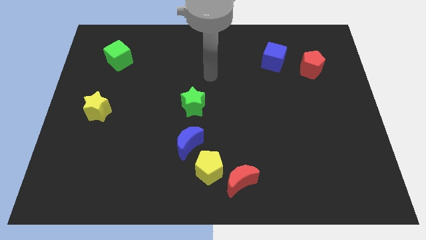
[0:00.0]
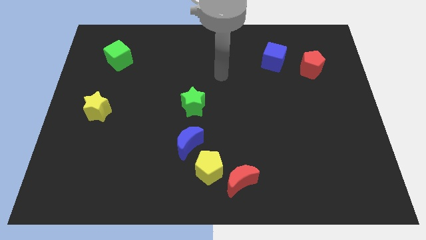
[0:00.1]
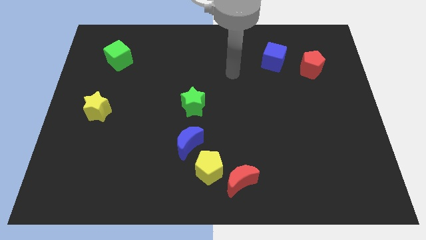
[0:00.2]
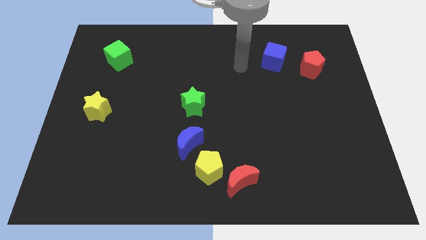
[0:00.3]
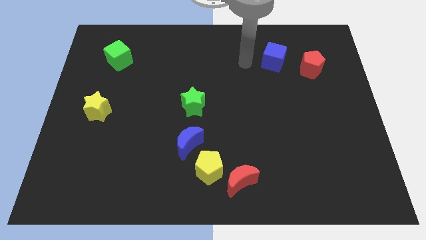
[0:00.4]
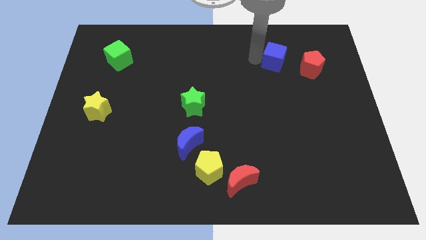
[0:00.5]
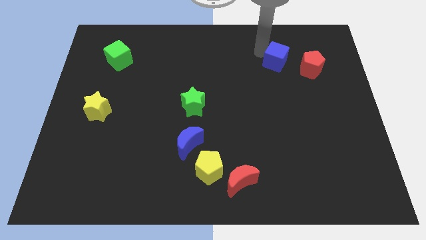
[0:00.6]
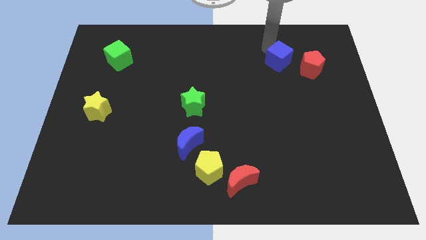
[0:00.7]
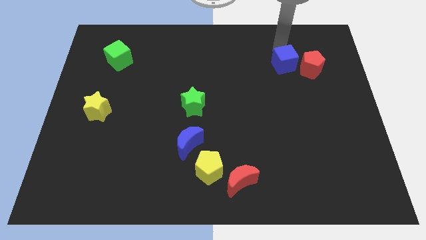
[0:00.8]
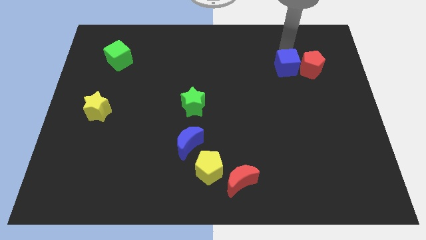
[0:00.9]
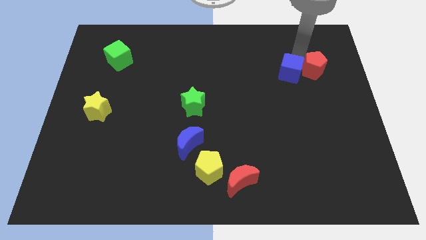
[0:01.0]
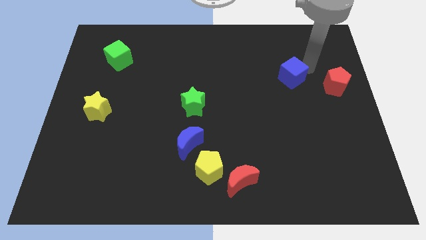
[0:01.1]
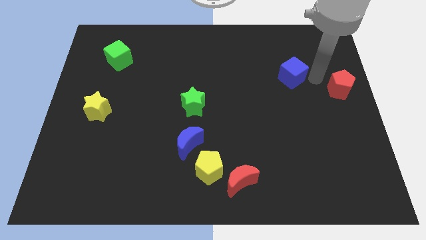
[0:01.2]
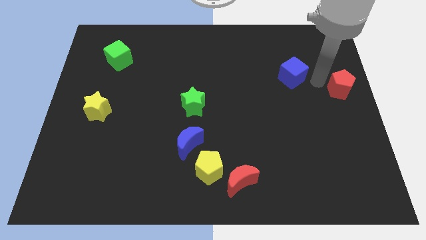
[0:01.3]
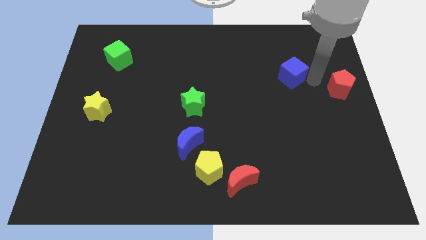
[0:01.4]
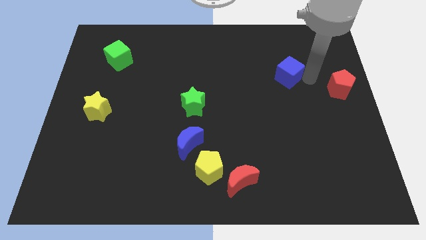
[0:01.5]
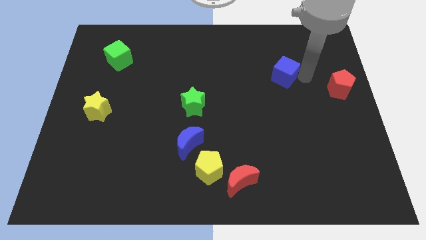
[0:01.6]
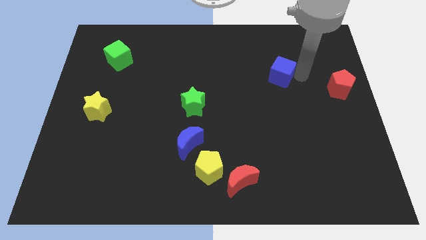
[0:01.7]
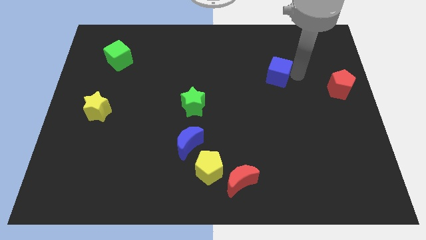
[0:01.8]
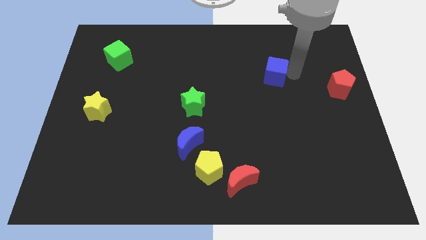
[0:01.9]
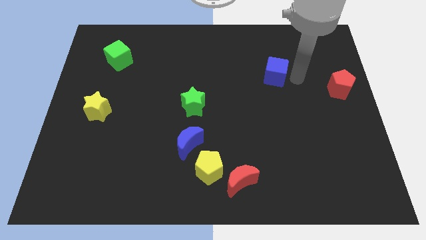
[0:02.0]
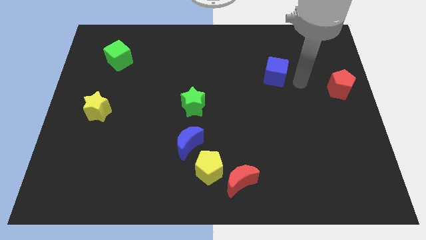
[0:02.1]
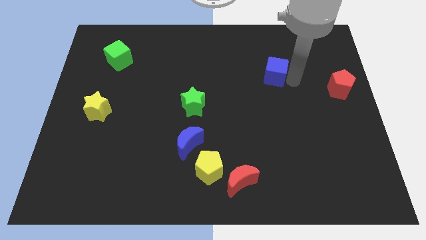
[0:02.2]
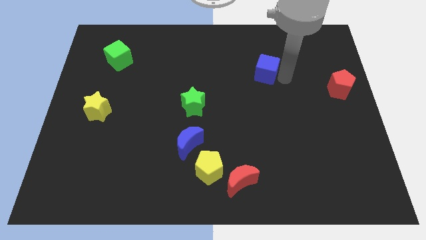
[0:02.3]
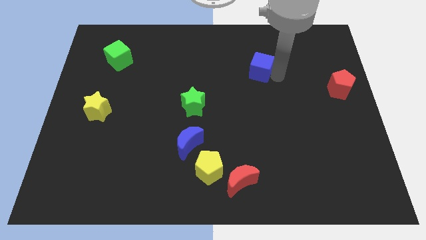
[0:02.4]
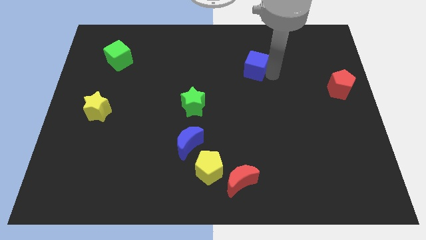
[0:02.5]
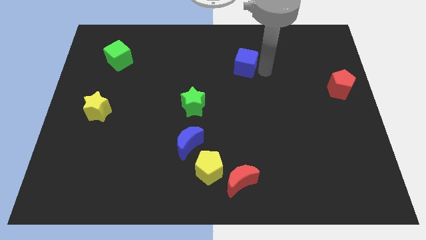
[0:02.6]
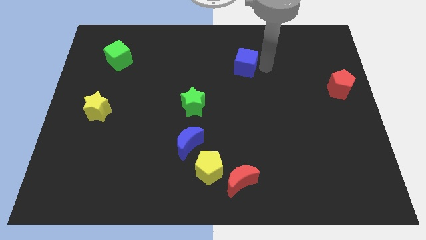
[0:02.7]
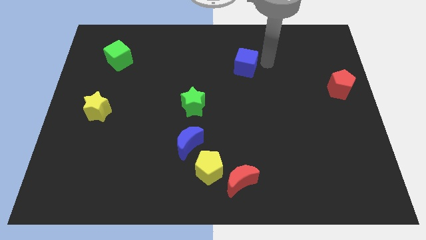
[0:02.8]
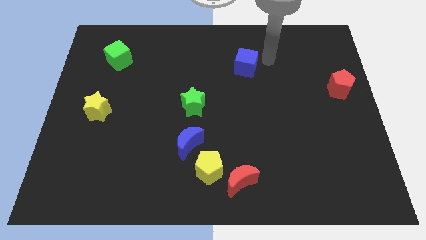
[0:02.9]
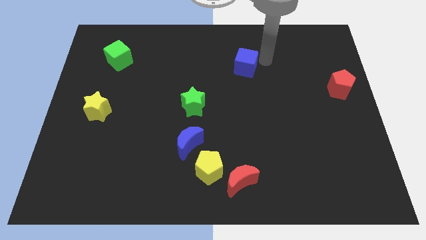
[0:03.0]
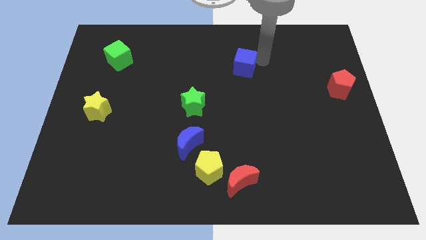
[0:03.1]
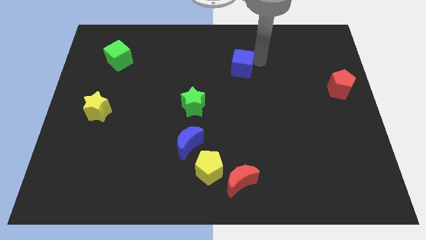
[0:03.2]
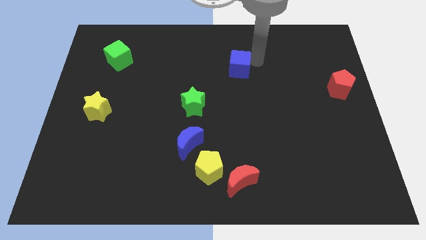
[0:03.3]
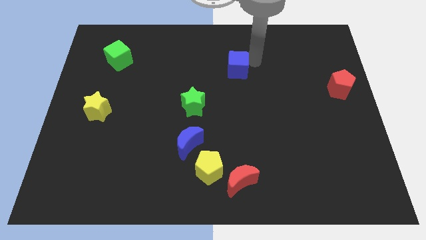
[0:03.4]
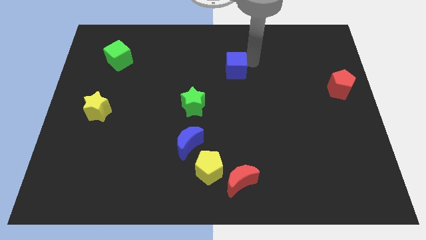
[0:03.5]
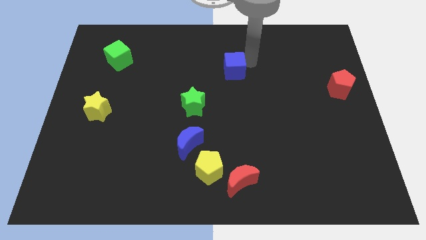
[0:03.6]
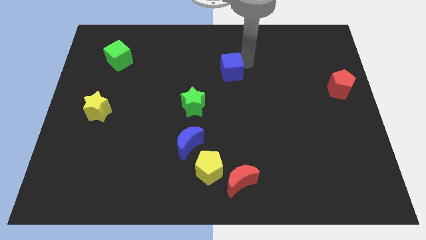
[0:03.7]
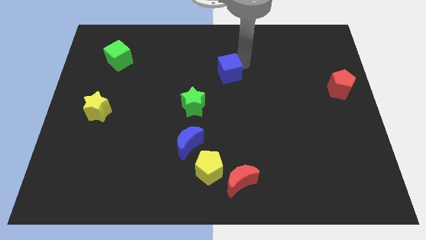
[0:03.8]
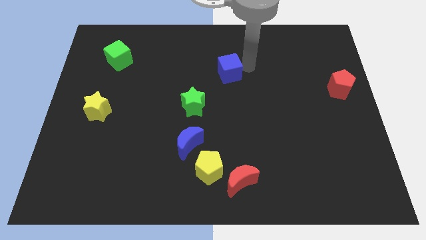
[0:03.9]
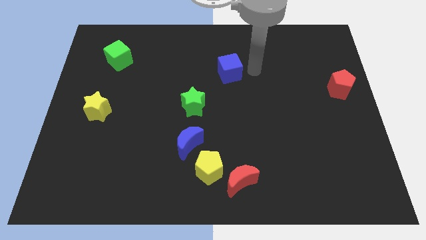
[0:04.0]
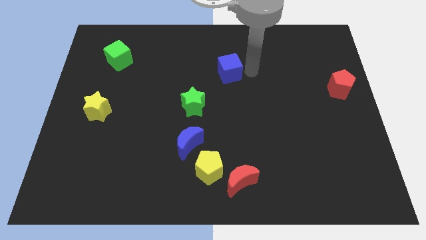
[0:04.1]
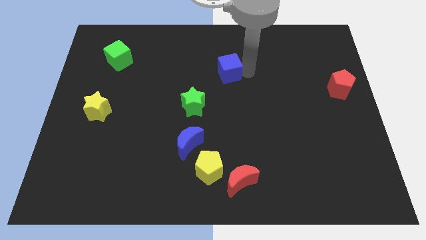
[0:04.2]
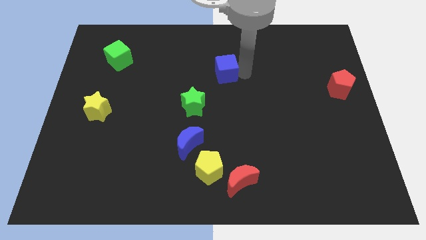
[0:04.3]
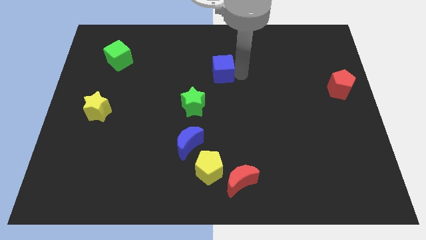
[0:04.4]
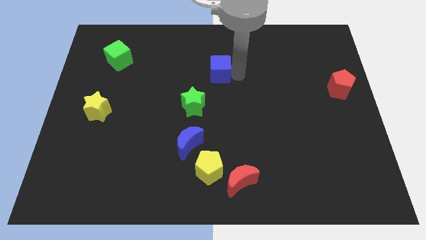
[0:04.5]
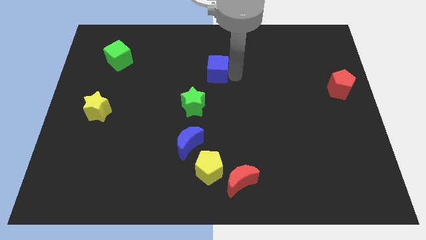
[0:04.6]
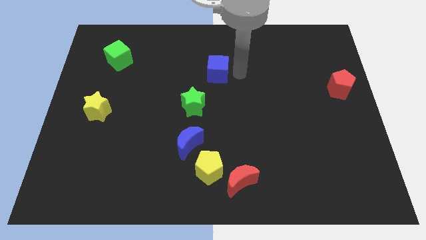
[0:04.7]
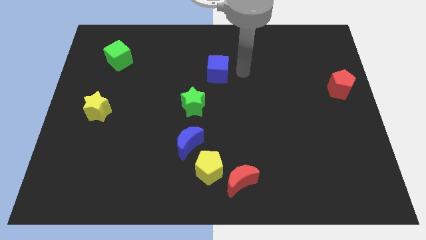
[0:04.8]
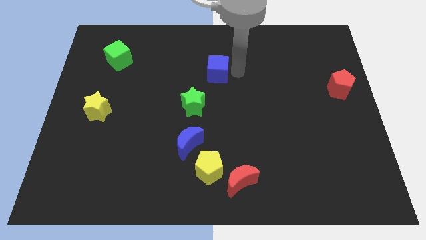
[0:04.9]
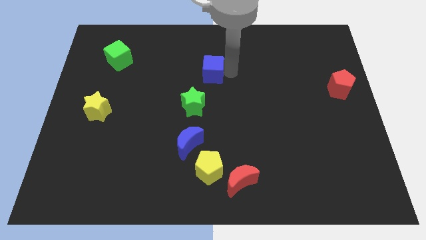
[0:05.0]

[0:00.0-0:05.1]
move the blue cube above the green star
